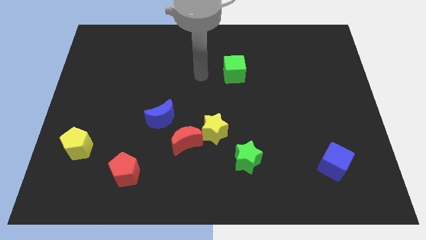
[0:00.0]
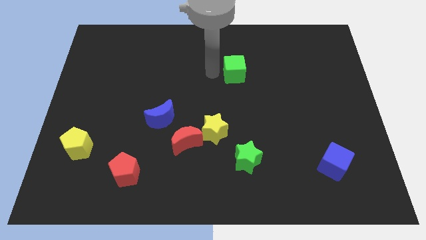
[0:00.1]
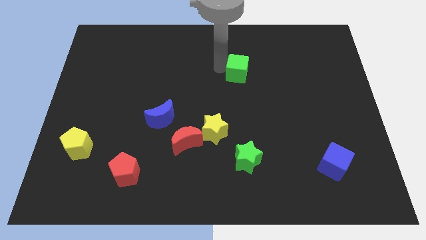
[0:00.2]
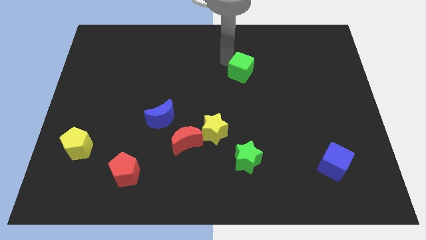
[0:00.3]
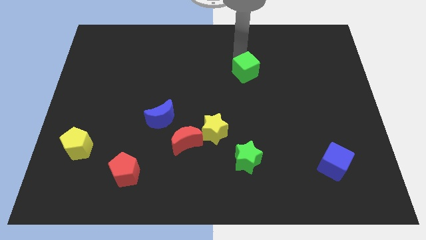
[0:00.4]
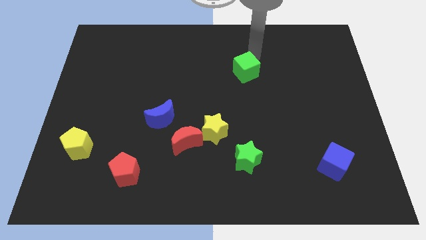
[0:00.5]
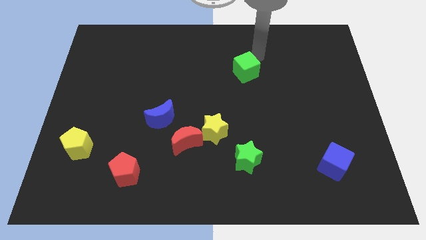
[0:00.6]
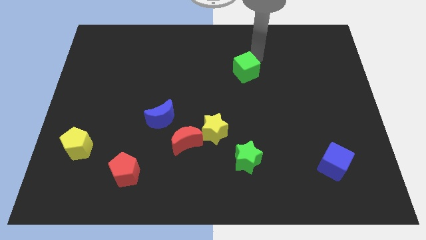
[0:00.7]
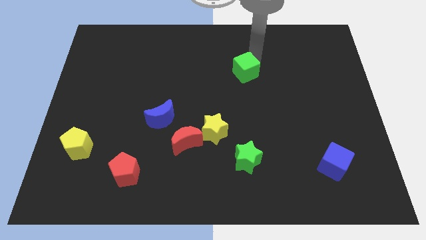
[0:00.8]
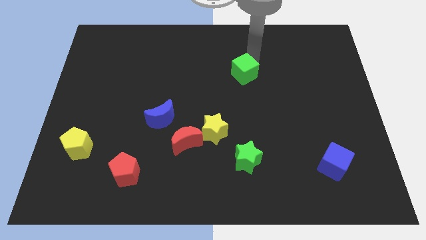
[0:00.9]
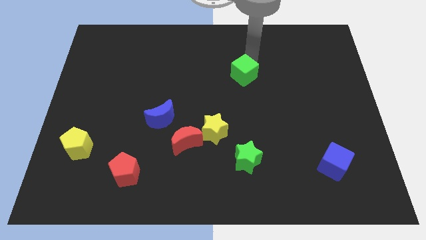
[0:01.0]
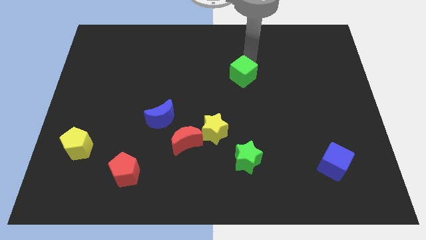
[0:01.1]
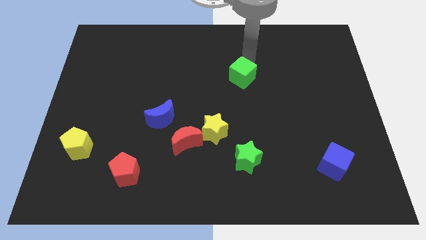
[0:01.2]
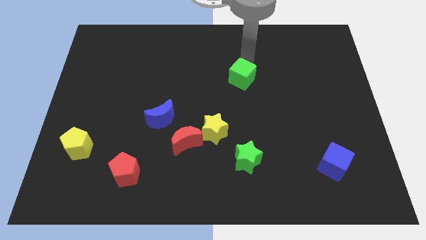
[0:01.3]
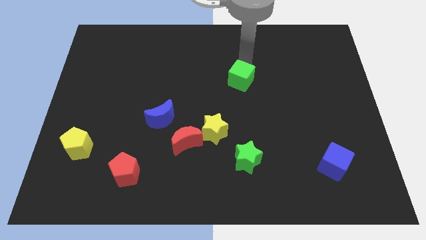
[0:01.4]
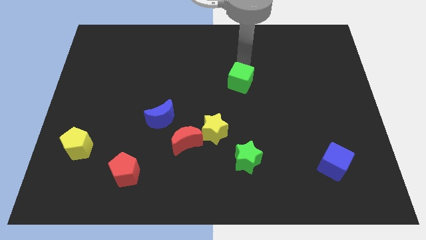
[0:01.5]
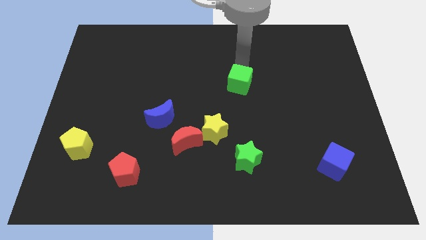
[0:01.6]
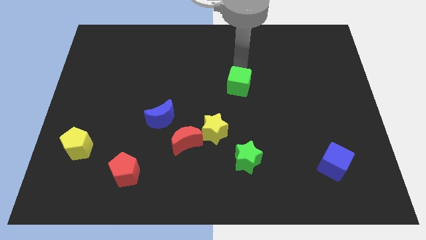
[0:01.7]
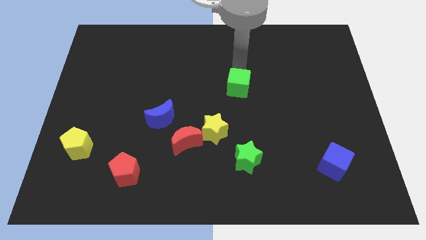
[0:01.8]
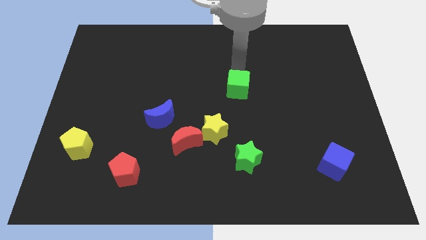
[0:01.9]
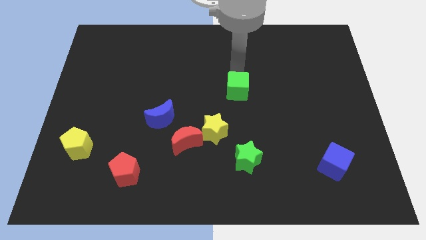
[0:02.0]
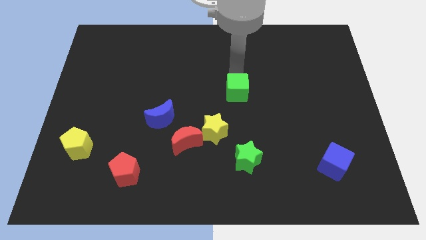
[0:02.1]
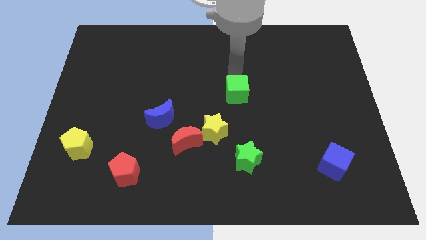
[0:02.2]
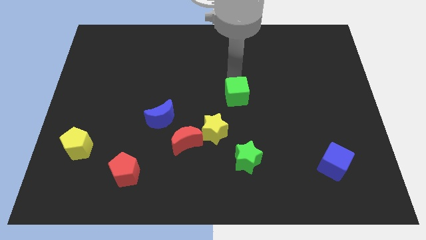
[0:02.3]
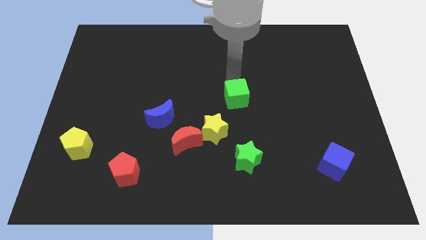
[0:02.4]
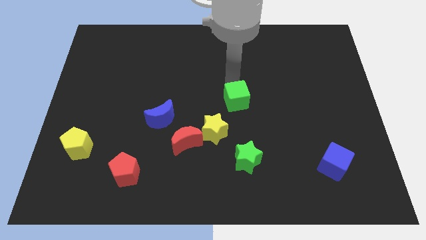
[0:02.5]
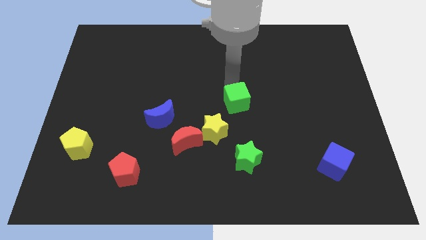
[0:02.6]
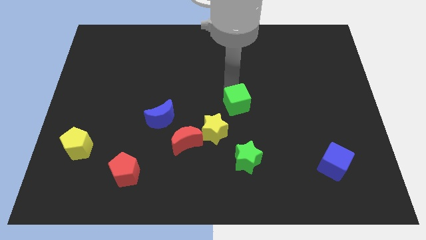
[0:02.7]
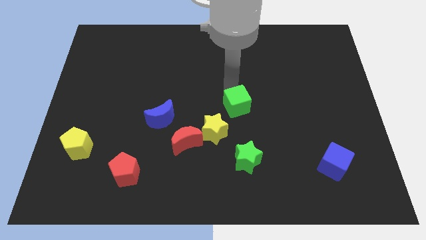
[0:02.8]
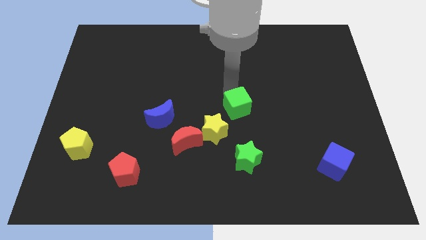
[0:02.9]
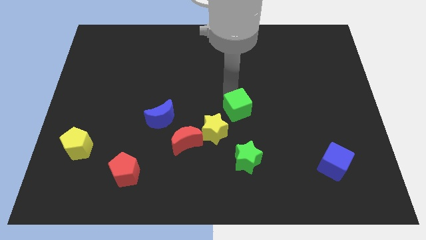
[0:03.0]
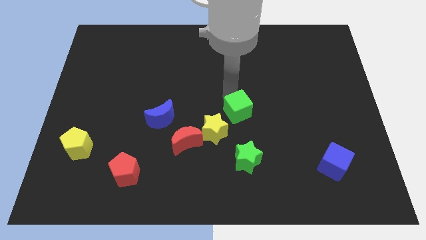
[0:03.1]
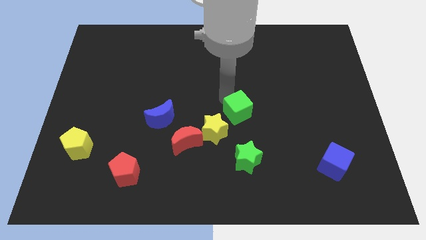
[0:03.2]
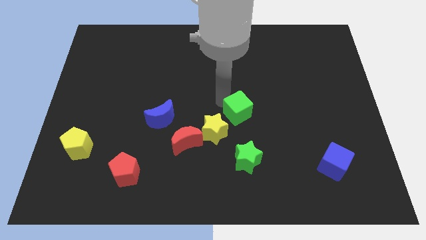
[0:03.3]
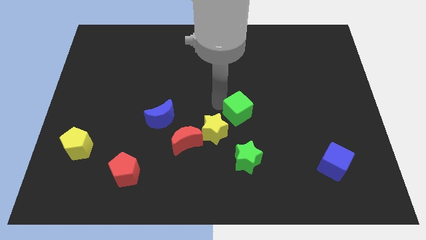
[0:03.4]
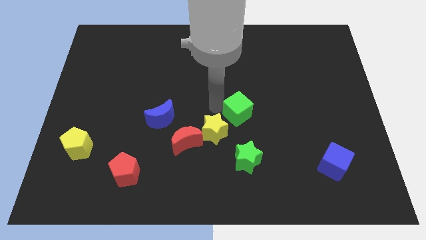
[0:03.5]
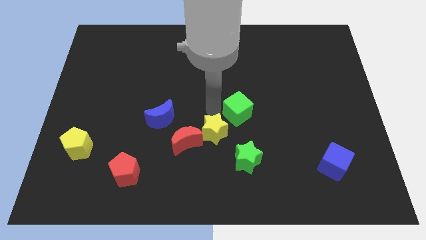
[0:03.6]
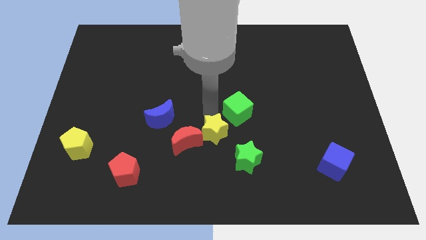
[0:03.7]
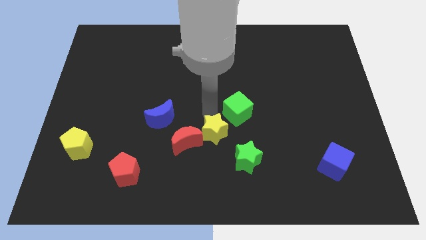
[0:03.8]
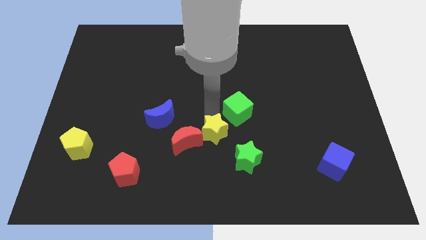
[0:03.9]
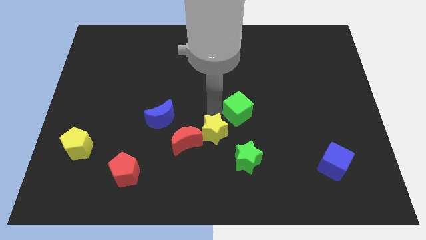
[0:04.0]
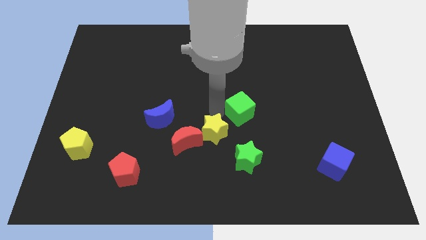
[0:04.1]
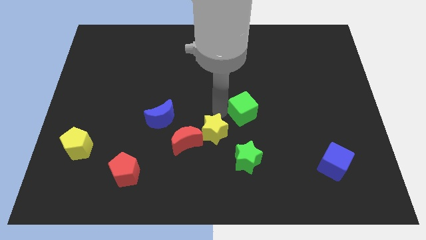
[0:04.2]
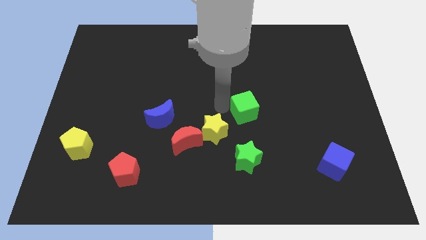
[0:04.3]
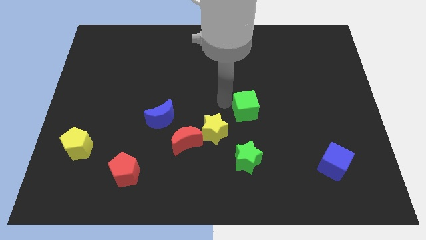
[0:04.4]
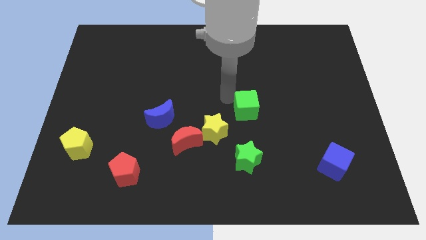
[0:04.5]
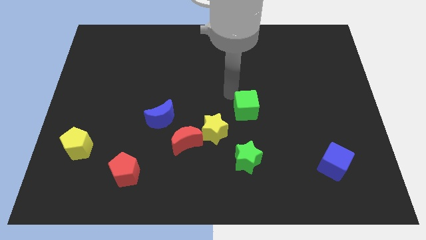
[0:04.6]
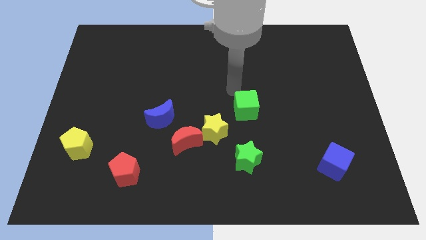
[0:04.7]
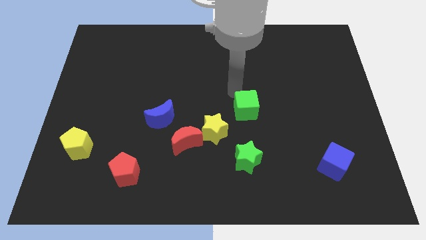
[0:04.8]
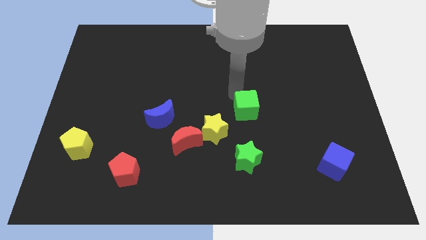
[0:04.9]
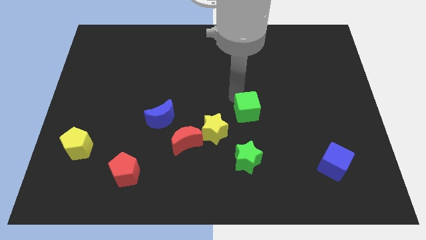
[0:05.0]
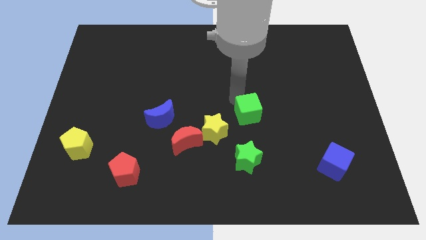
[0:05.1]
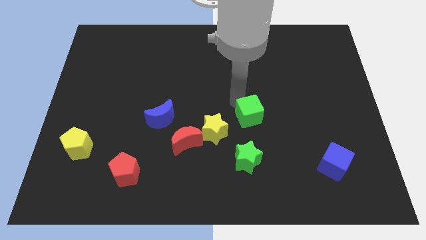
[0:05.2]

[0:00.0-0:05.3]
put the green cube to the right side of the yellow star

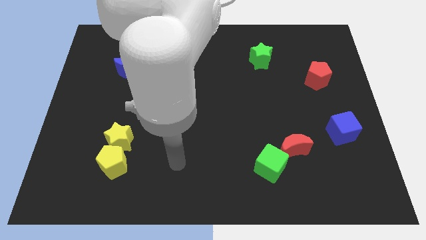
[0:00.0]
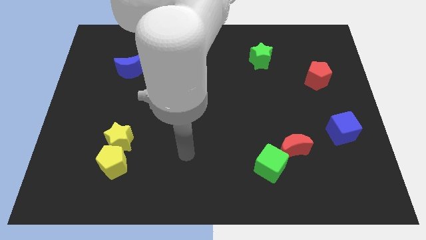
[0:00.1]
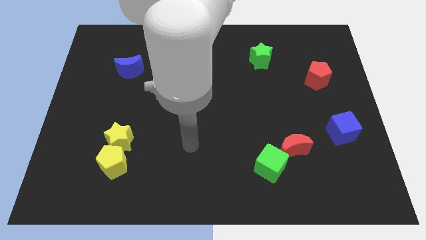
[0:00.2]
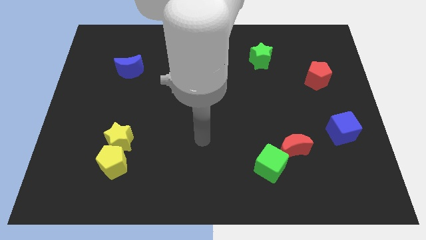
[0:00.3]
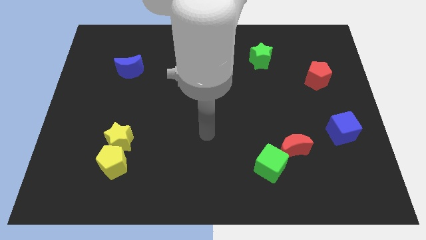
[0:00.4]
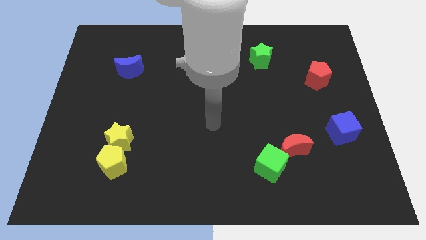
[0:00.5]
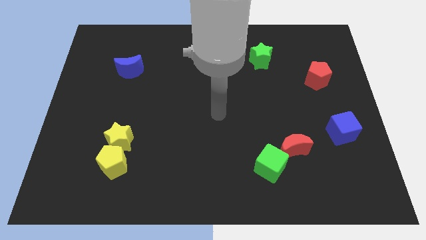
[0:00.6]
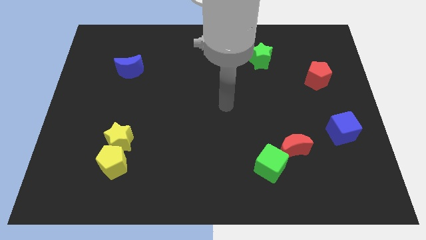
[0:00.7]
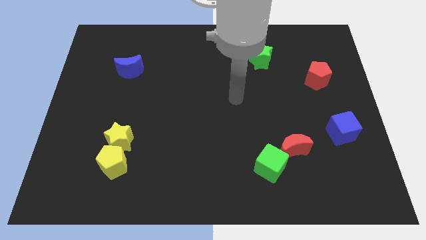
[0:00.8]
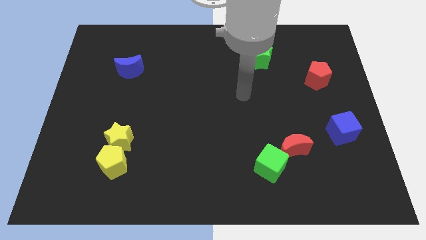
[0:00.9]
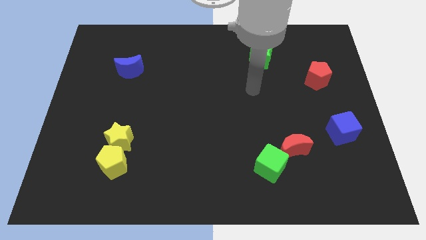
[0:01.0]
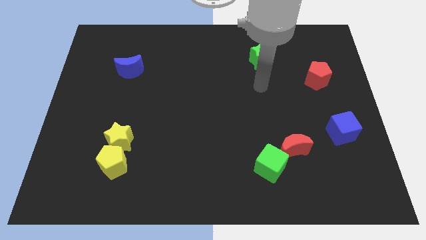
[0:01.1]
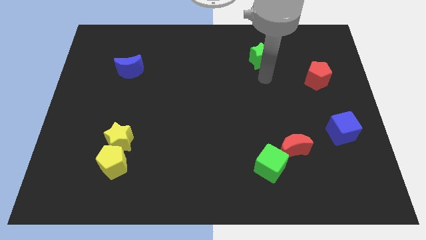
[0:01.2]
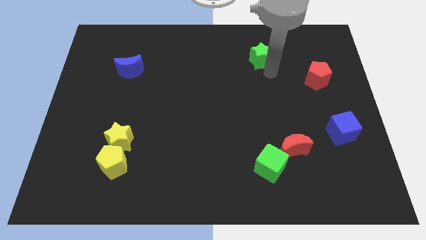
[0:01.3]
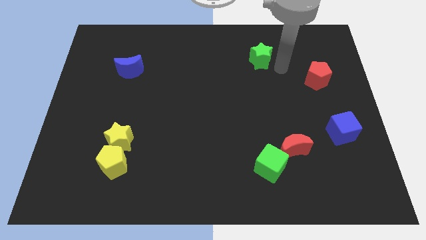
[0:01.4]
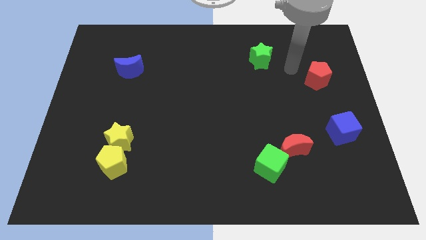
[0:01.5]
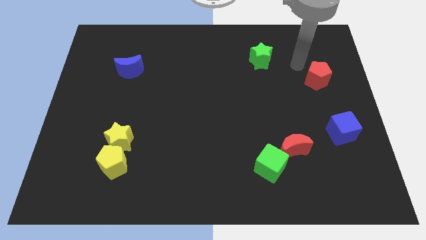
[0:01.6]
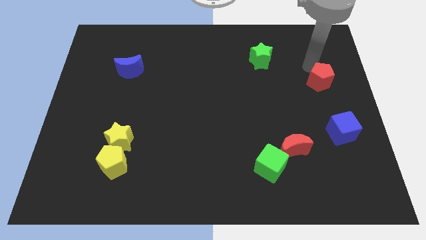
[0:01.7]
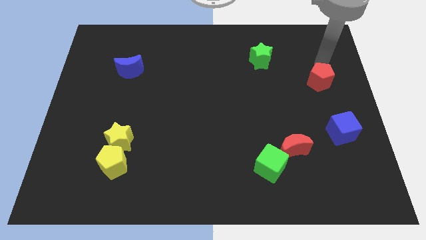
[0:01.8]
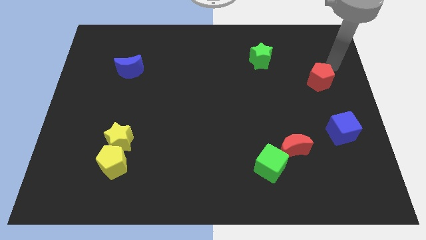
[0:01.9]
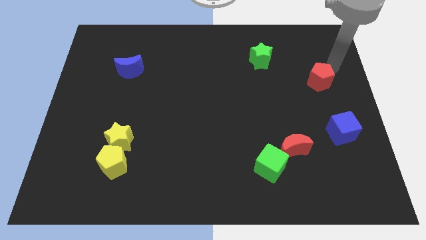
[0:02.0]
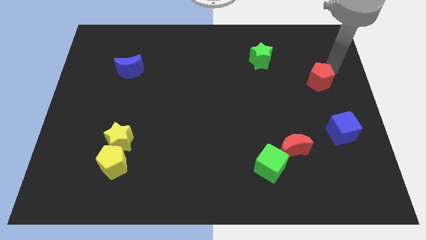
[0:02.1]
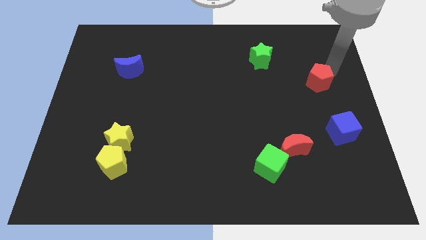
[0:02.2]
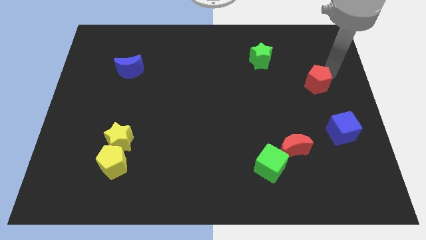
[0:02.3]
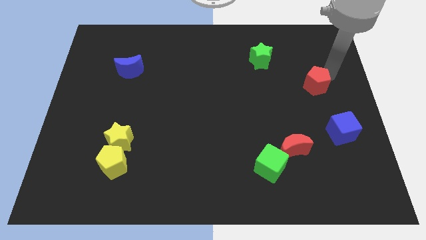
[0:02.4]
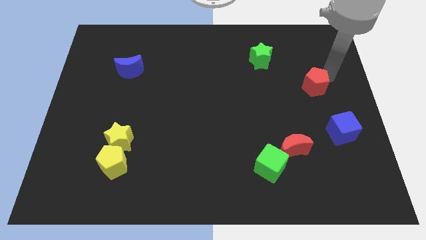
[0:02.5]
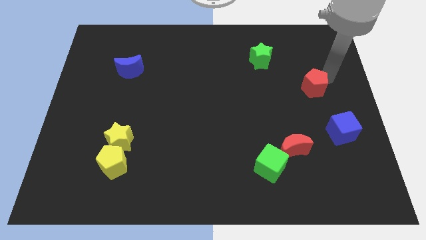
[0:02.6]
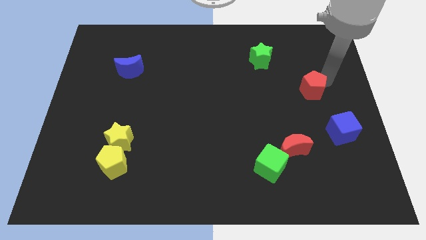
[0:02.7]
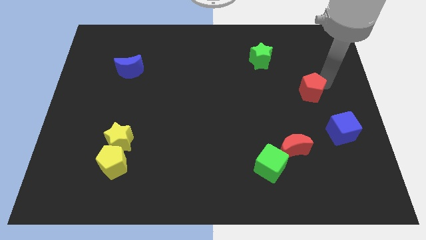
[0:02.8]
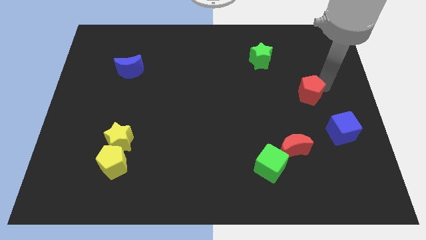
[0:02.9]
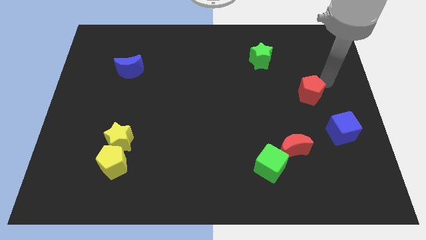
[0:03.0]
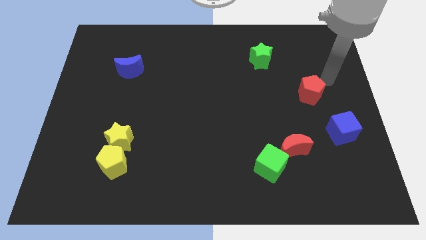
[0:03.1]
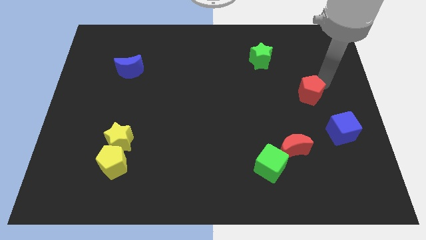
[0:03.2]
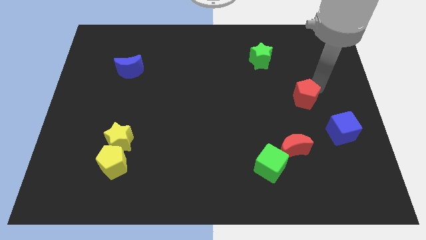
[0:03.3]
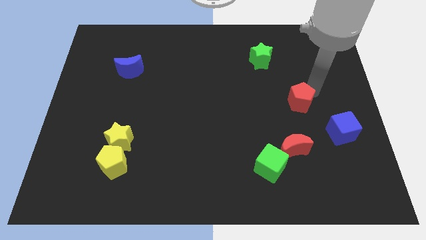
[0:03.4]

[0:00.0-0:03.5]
move the red pentagon above the red moon
